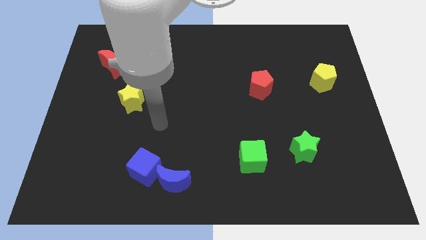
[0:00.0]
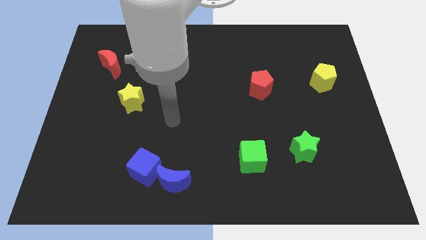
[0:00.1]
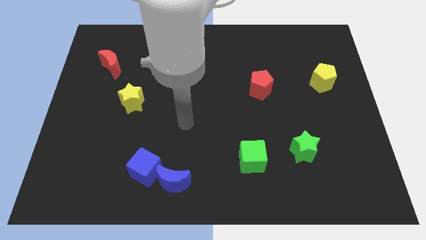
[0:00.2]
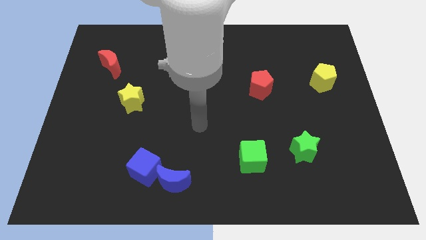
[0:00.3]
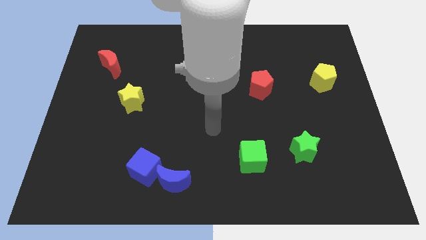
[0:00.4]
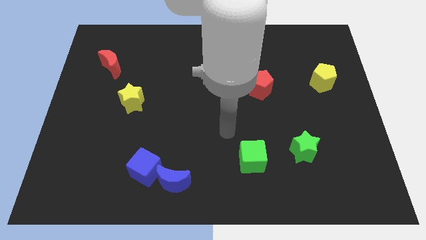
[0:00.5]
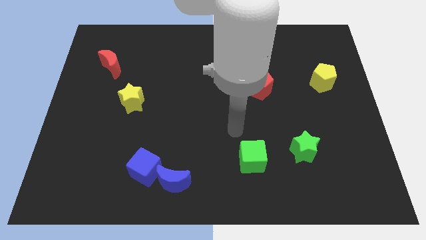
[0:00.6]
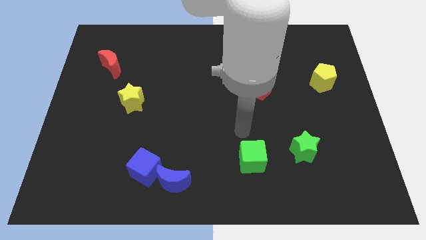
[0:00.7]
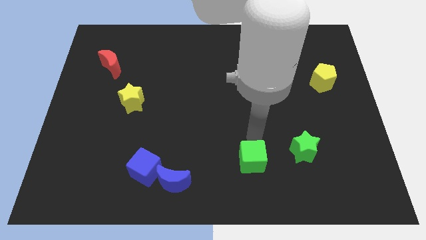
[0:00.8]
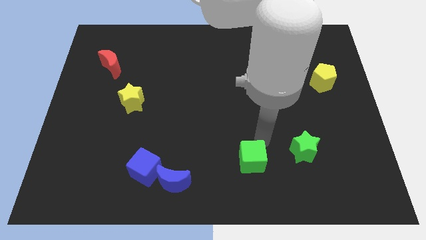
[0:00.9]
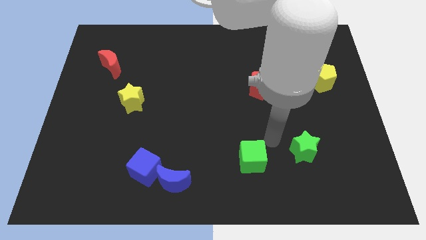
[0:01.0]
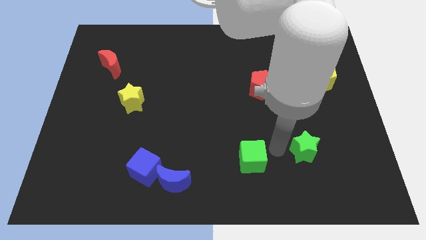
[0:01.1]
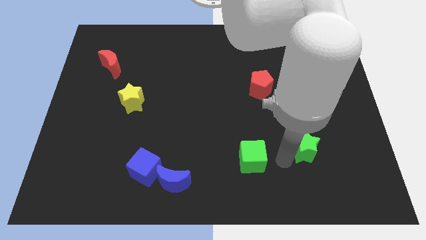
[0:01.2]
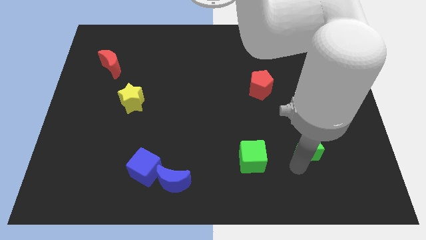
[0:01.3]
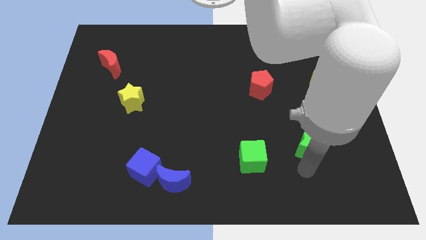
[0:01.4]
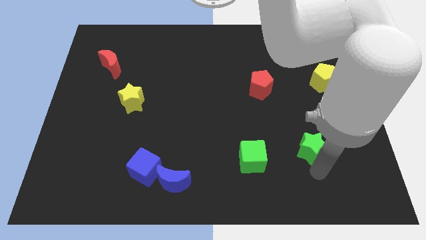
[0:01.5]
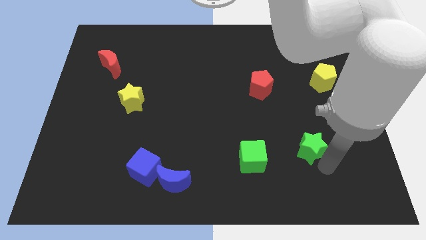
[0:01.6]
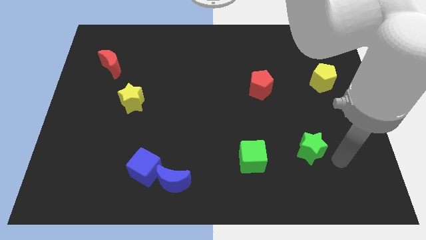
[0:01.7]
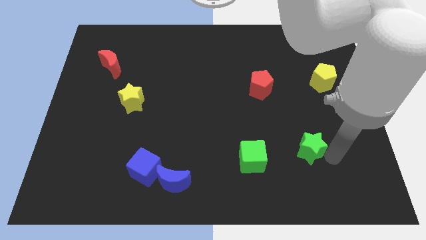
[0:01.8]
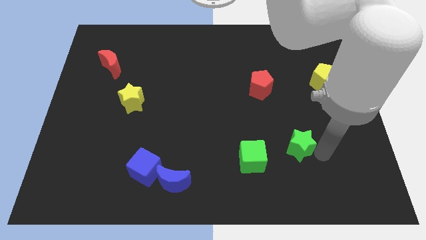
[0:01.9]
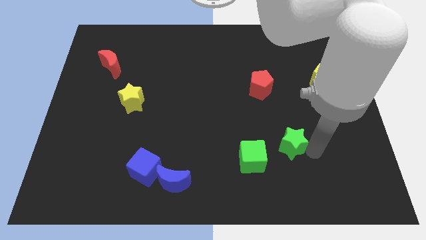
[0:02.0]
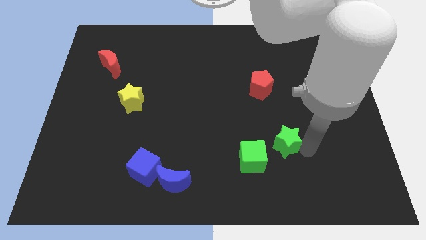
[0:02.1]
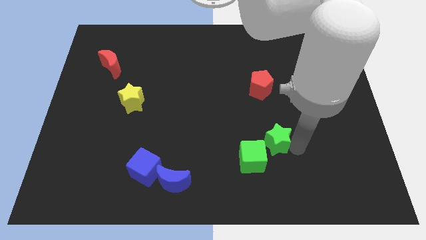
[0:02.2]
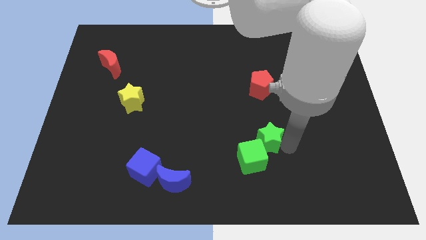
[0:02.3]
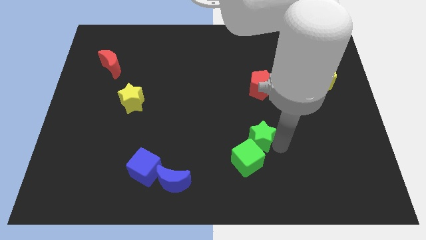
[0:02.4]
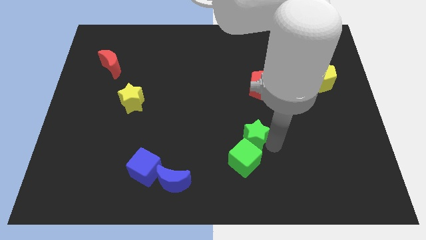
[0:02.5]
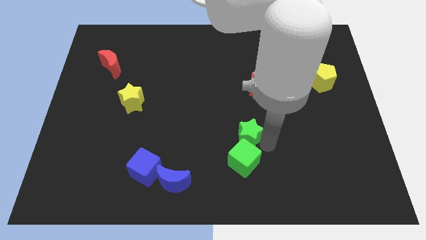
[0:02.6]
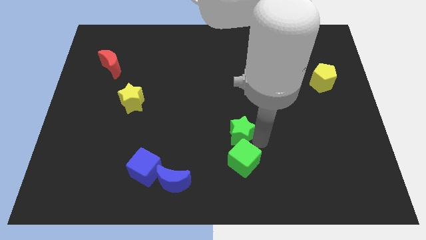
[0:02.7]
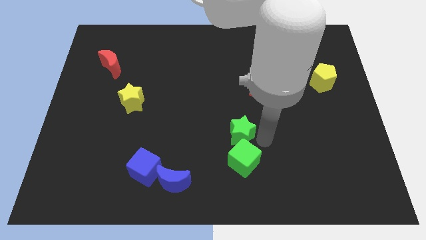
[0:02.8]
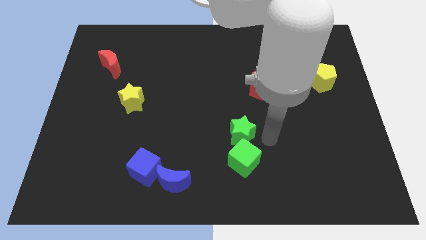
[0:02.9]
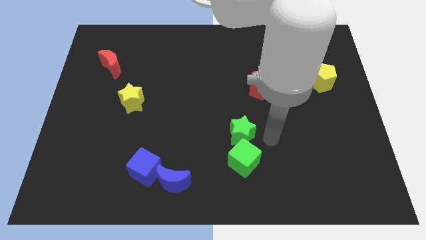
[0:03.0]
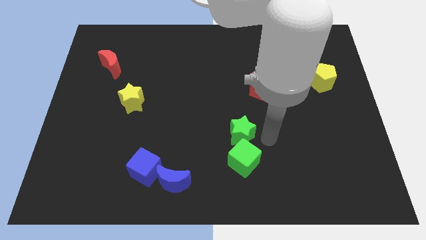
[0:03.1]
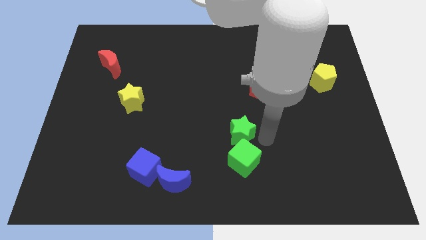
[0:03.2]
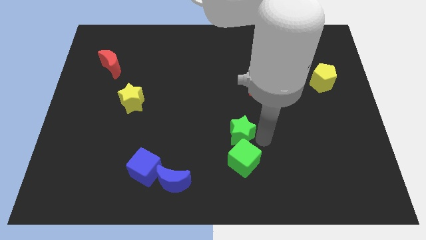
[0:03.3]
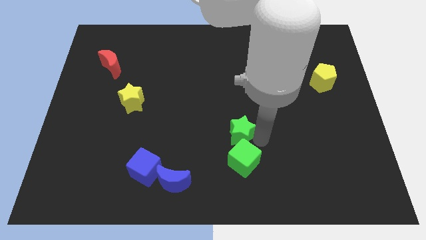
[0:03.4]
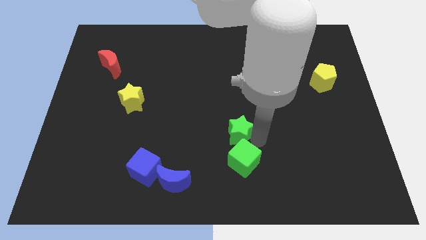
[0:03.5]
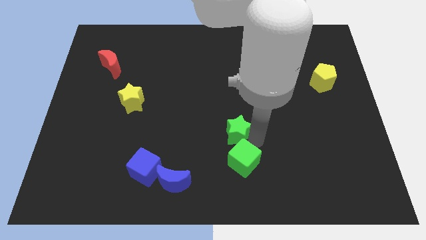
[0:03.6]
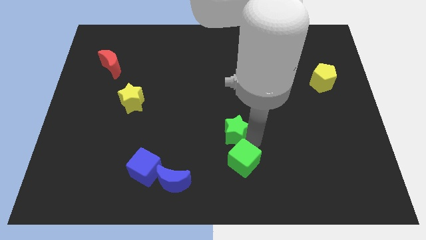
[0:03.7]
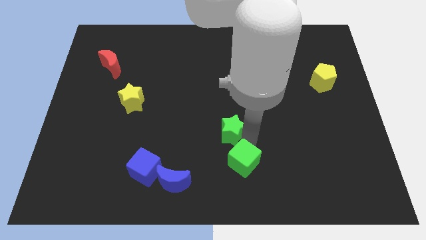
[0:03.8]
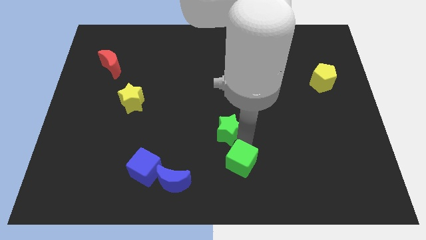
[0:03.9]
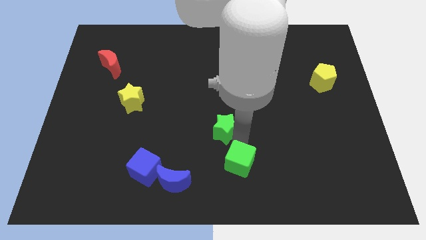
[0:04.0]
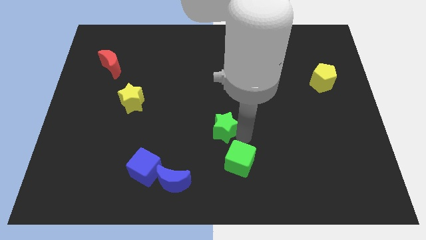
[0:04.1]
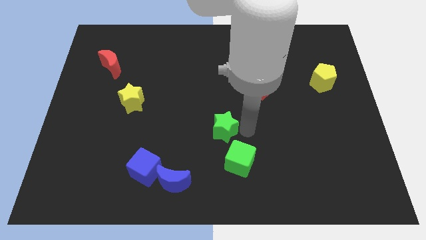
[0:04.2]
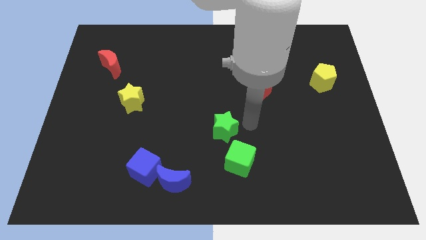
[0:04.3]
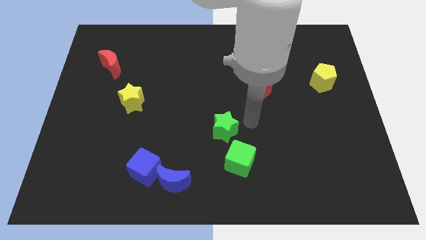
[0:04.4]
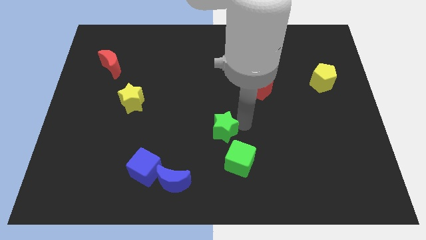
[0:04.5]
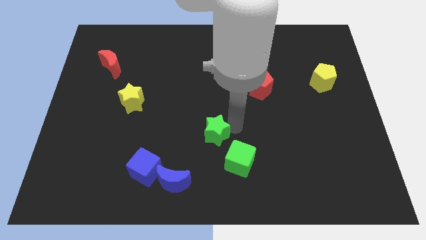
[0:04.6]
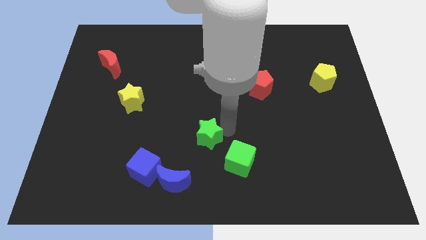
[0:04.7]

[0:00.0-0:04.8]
push the green star to the left

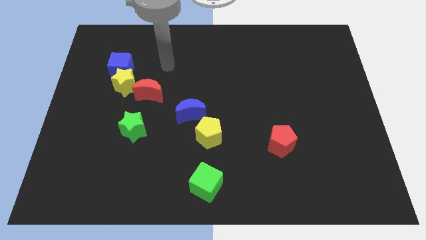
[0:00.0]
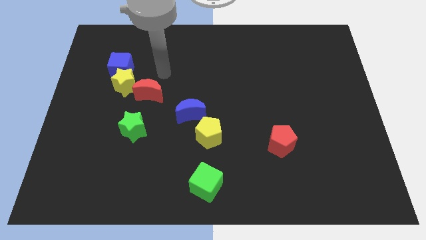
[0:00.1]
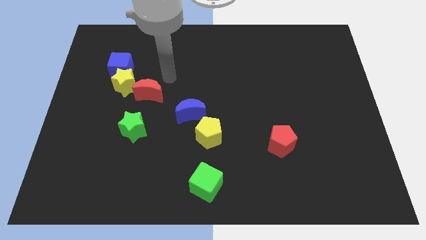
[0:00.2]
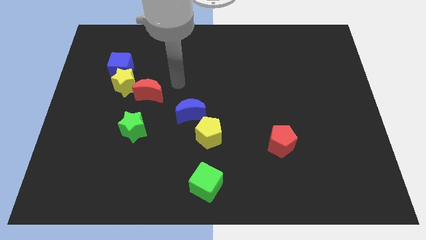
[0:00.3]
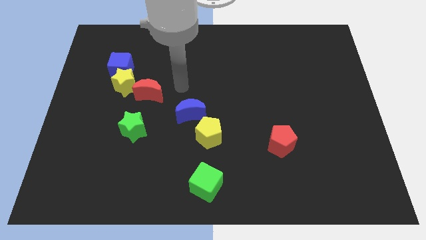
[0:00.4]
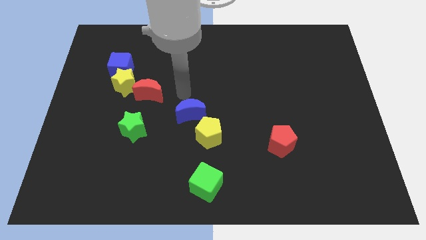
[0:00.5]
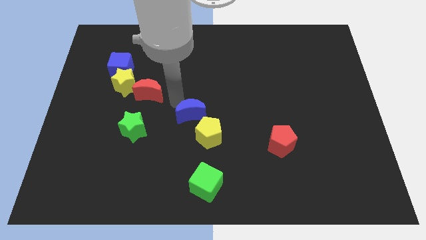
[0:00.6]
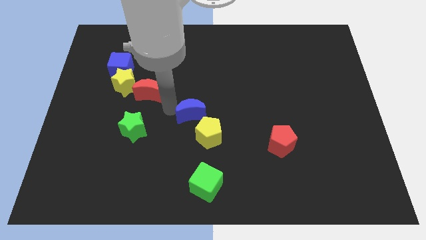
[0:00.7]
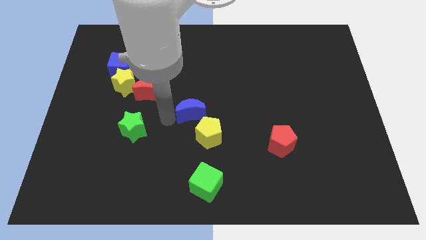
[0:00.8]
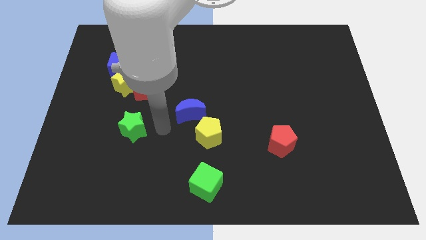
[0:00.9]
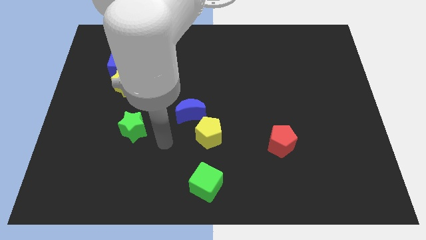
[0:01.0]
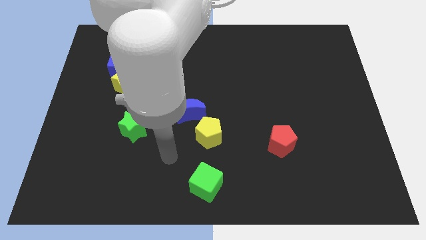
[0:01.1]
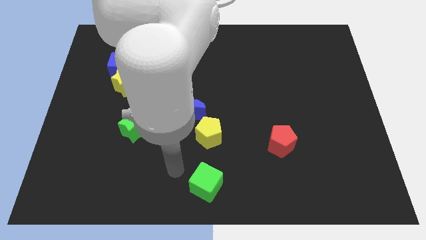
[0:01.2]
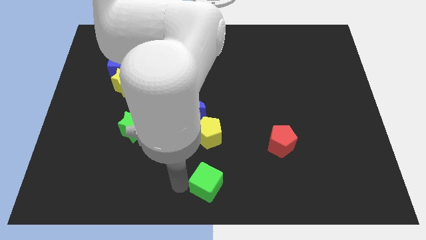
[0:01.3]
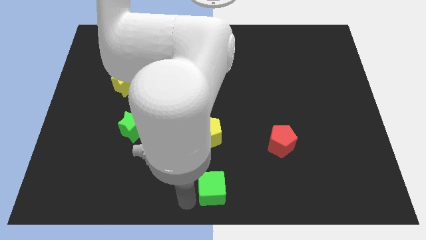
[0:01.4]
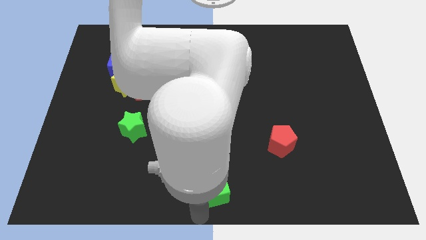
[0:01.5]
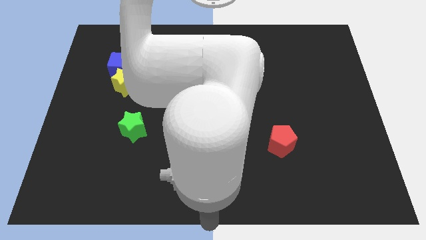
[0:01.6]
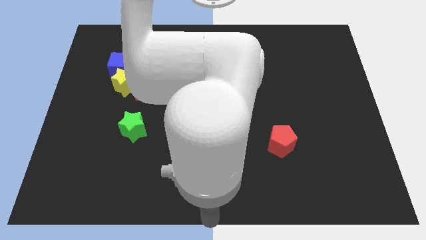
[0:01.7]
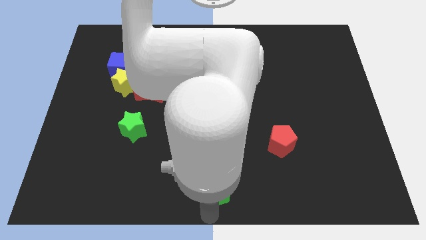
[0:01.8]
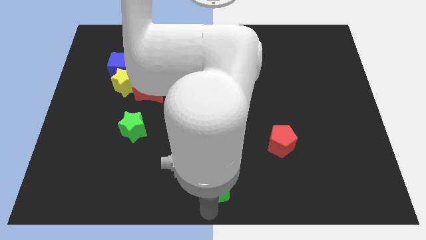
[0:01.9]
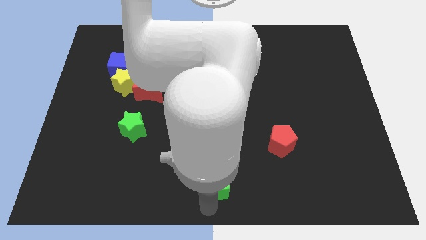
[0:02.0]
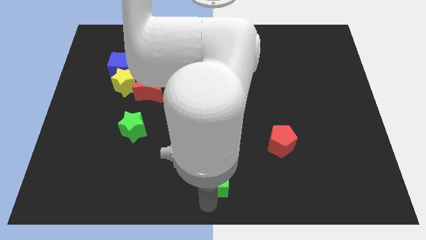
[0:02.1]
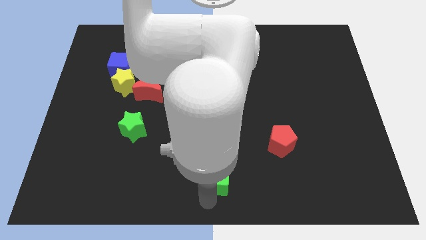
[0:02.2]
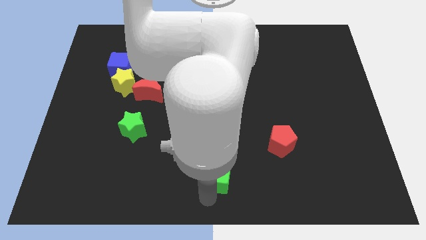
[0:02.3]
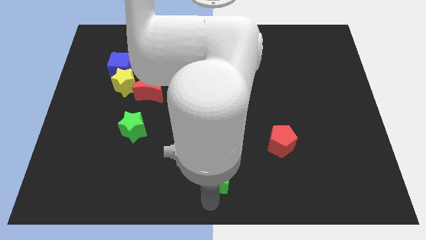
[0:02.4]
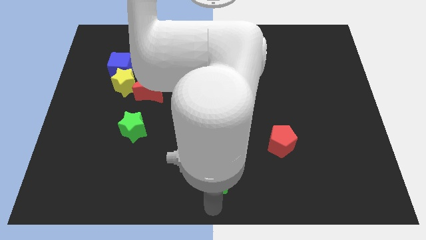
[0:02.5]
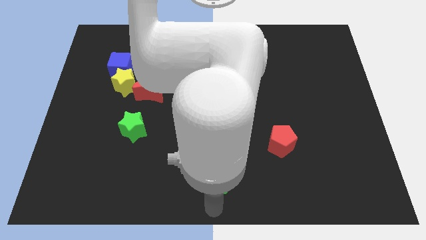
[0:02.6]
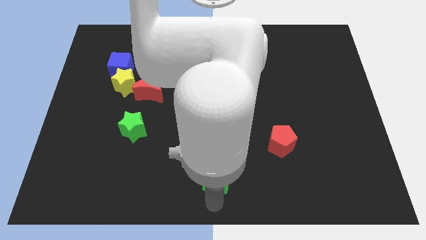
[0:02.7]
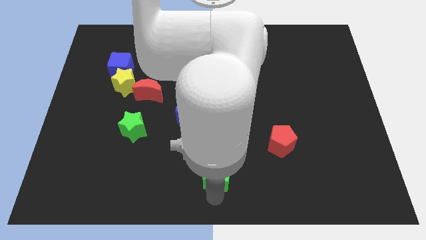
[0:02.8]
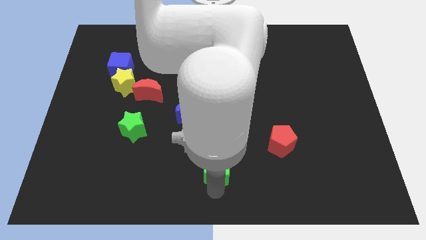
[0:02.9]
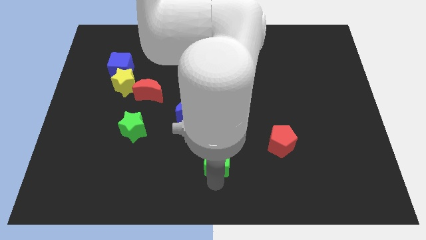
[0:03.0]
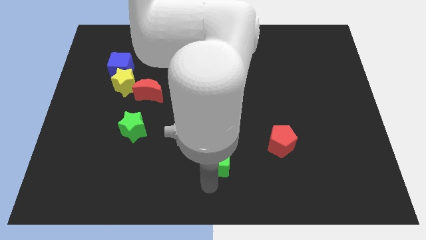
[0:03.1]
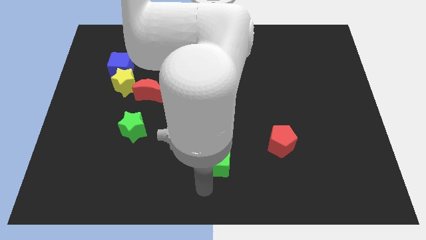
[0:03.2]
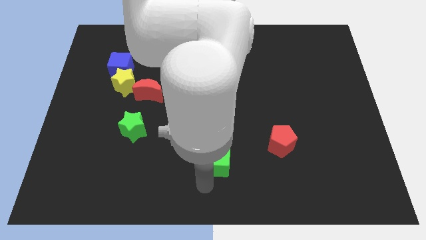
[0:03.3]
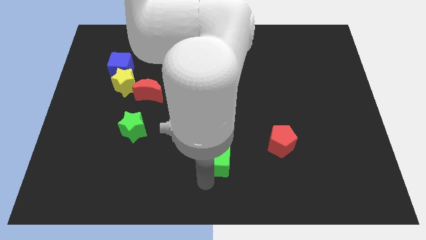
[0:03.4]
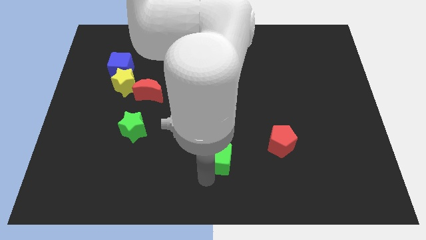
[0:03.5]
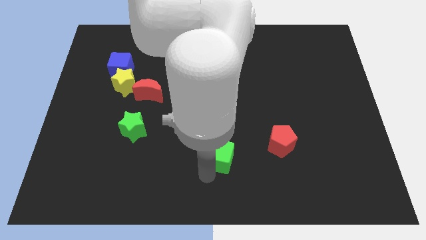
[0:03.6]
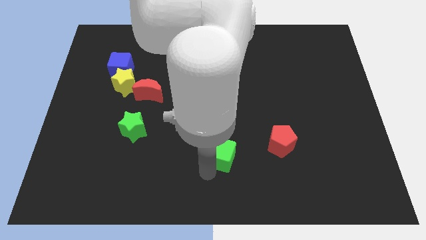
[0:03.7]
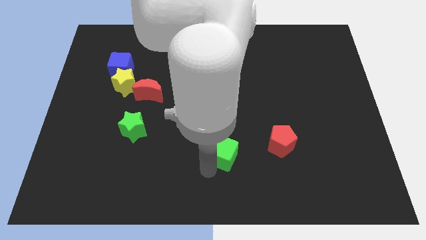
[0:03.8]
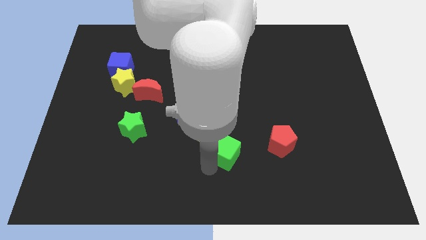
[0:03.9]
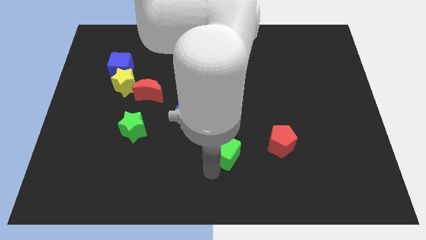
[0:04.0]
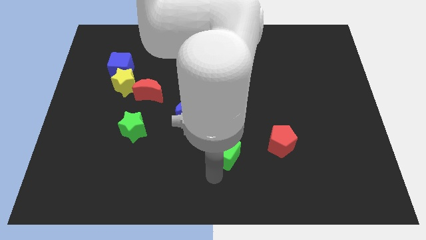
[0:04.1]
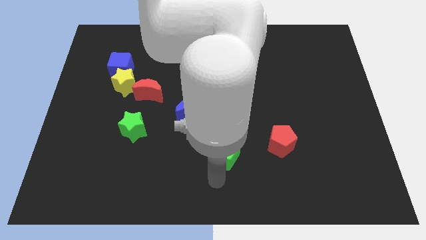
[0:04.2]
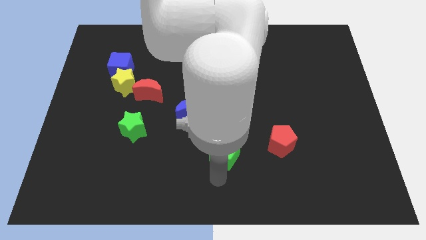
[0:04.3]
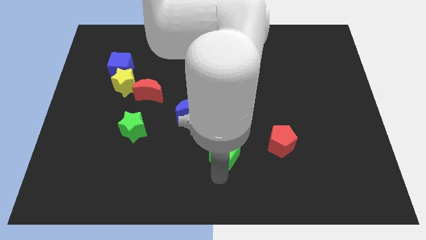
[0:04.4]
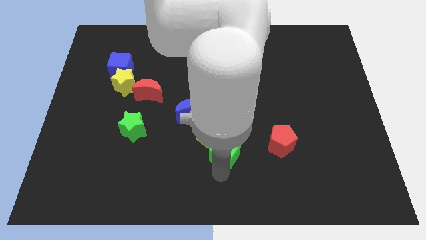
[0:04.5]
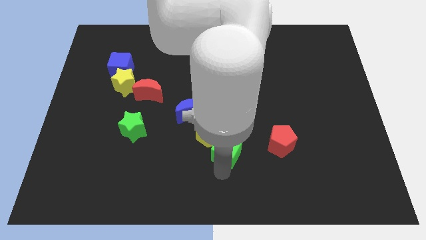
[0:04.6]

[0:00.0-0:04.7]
slide the green cube a little bit up
